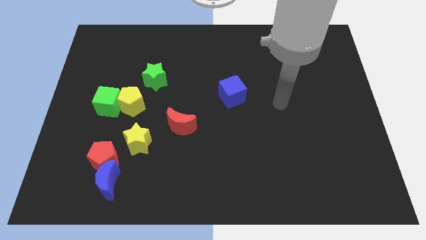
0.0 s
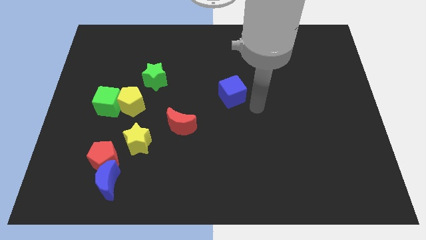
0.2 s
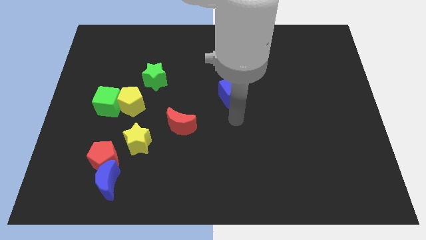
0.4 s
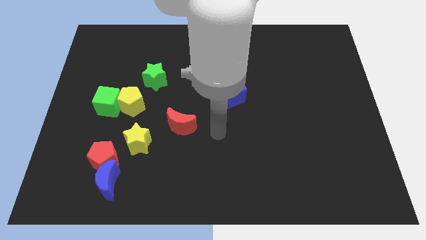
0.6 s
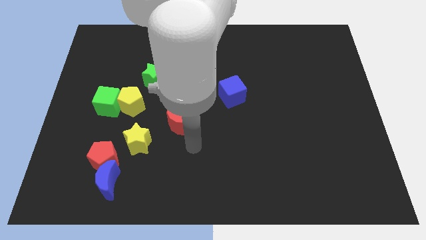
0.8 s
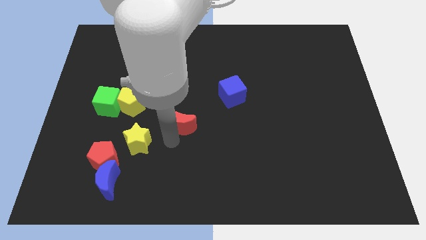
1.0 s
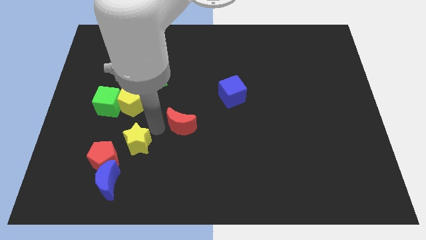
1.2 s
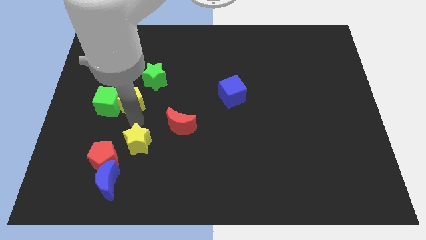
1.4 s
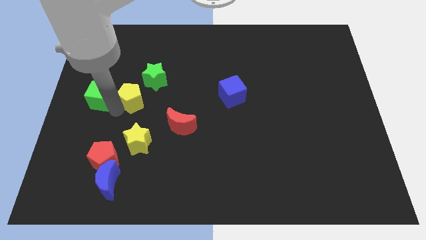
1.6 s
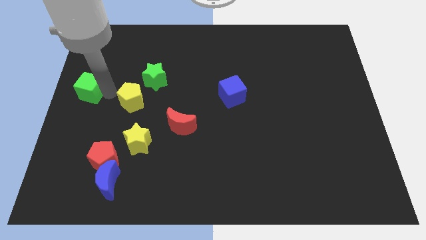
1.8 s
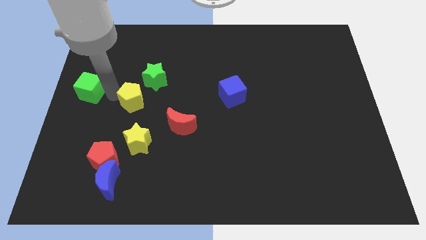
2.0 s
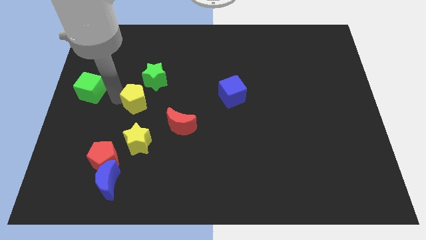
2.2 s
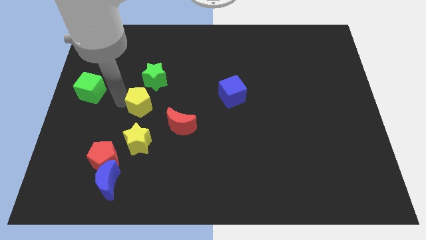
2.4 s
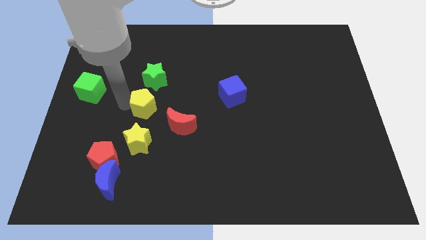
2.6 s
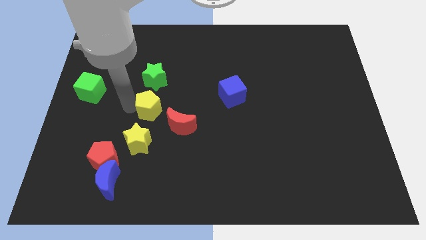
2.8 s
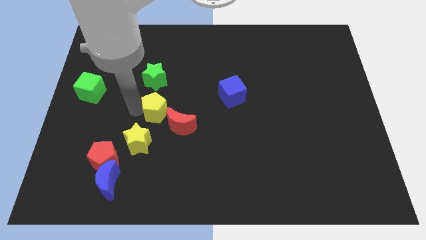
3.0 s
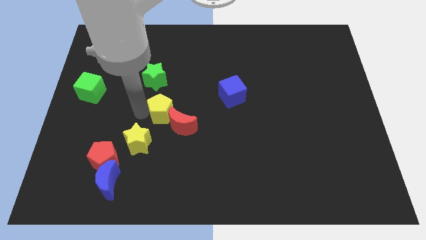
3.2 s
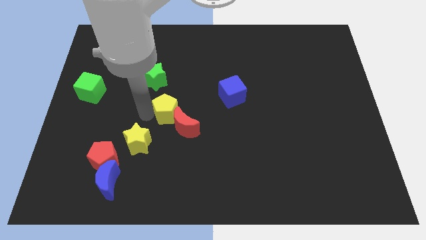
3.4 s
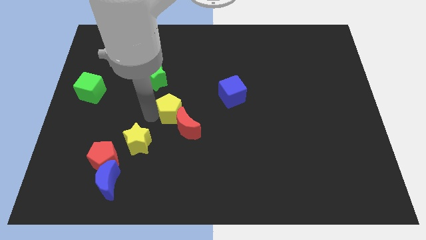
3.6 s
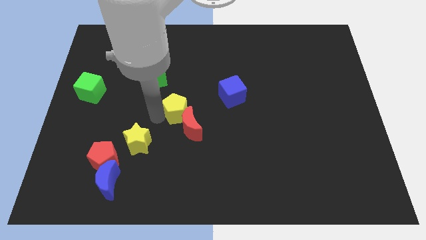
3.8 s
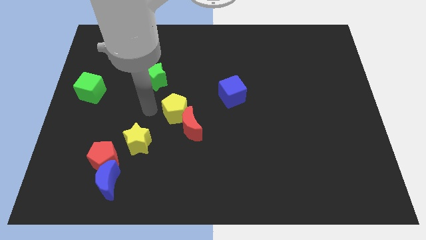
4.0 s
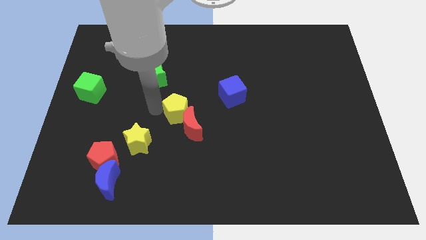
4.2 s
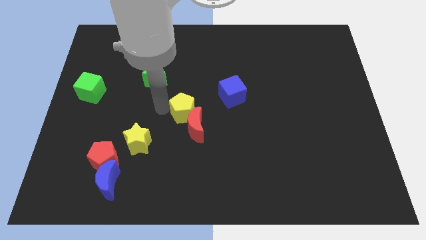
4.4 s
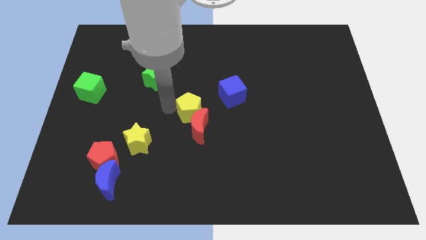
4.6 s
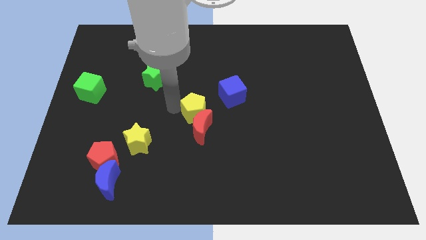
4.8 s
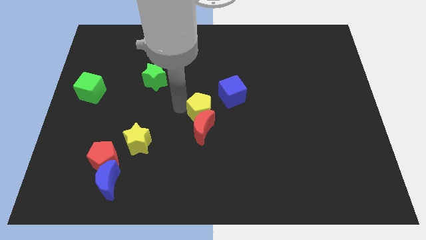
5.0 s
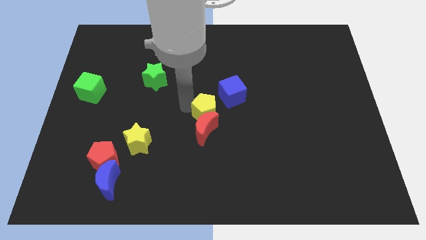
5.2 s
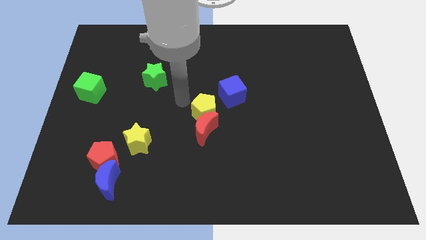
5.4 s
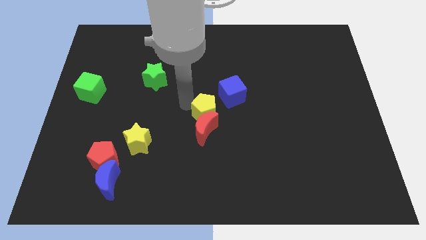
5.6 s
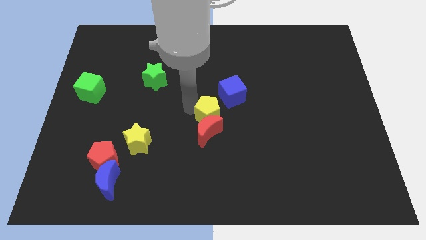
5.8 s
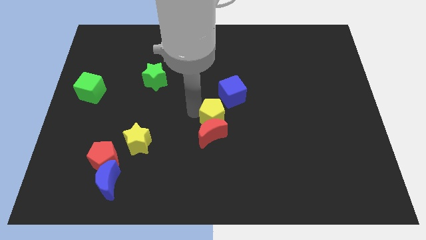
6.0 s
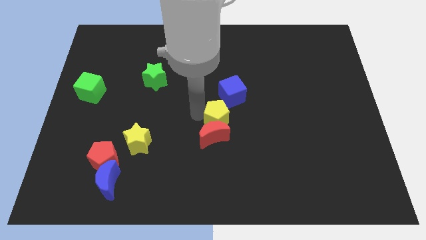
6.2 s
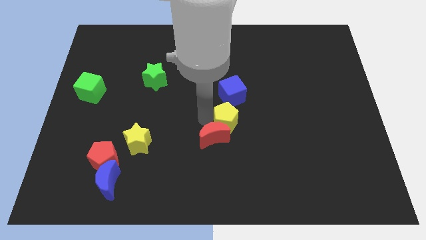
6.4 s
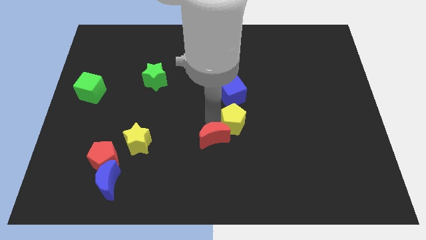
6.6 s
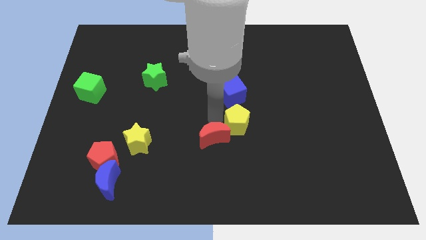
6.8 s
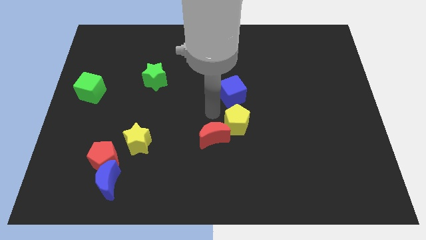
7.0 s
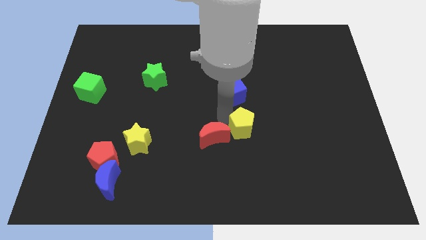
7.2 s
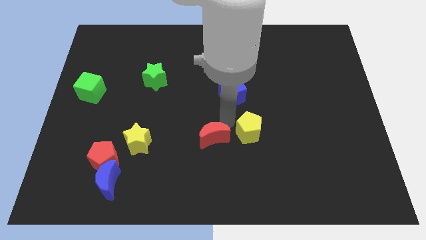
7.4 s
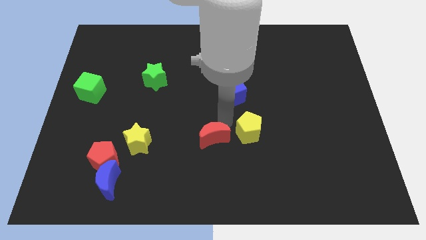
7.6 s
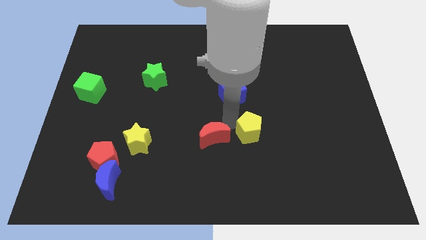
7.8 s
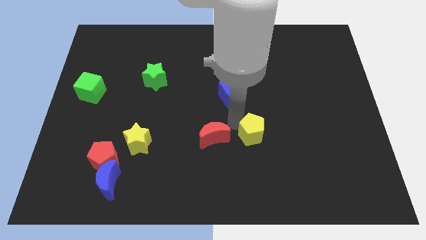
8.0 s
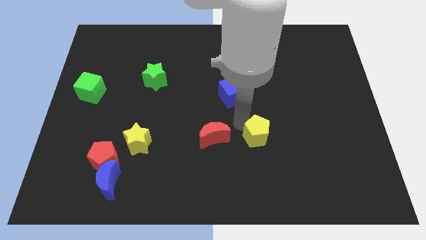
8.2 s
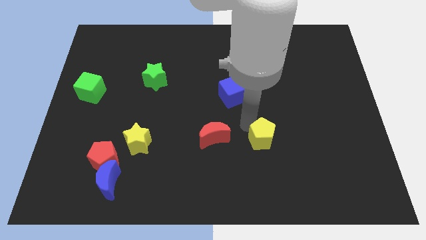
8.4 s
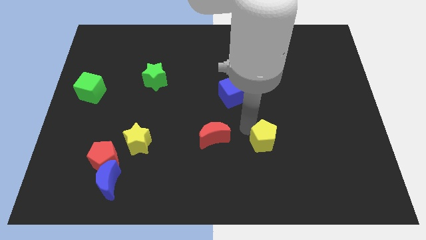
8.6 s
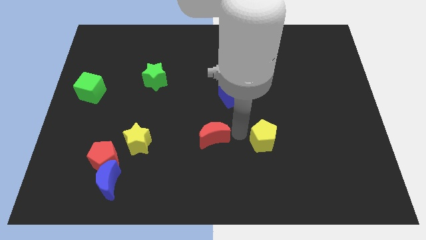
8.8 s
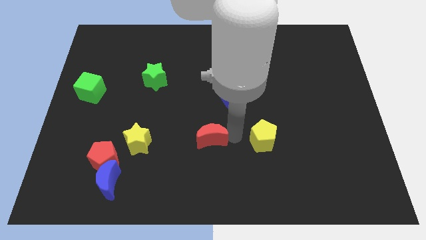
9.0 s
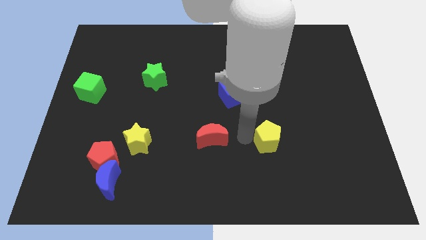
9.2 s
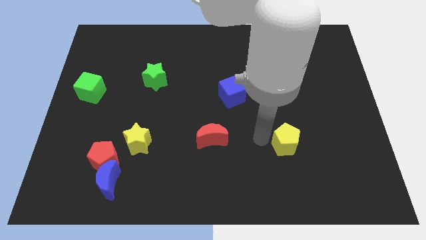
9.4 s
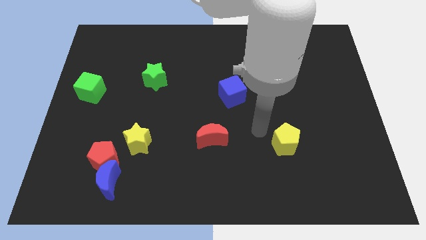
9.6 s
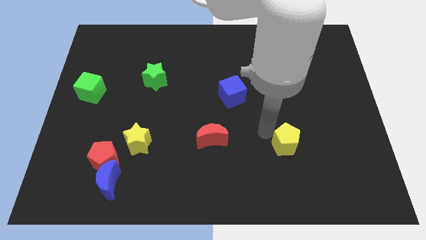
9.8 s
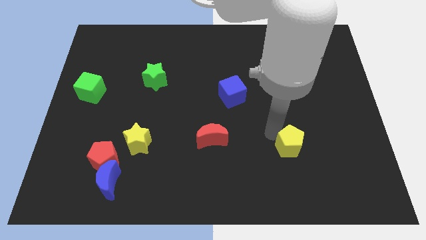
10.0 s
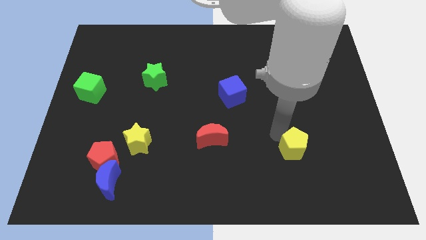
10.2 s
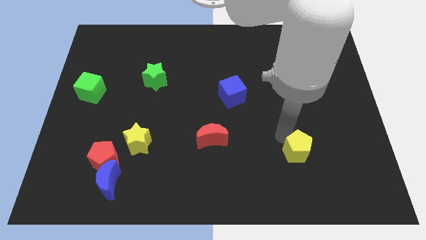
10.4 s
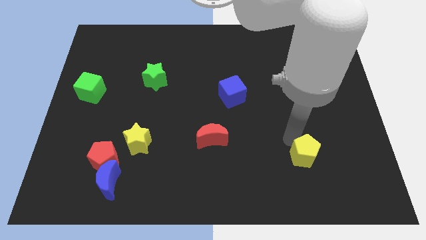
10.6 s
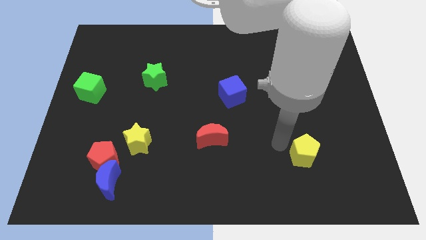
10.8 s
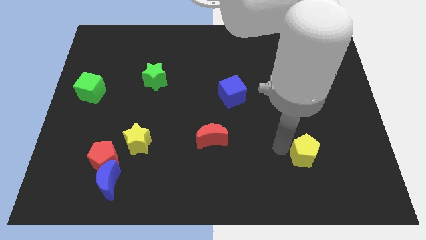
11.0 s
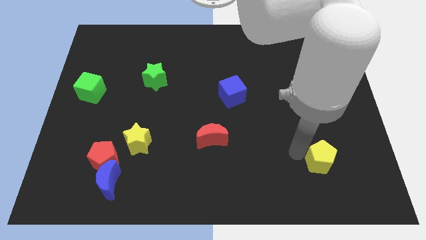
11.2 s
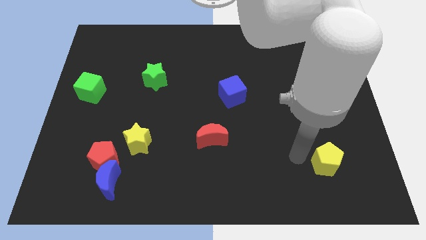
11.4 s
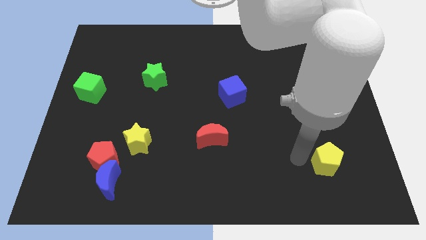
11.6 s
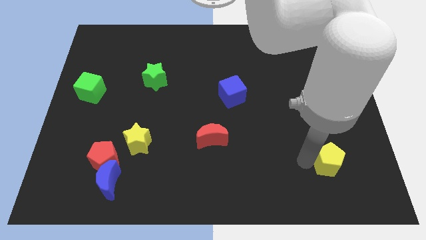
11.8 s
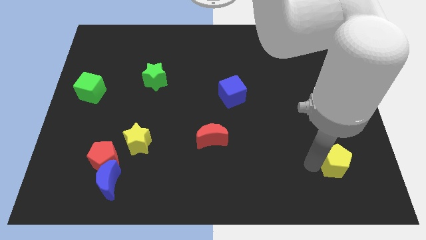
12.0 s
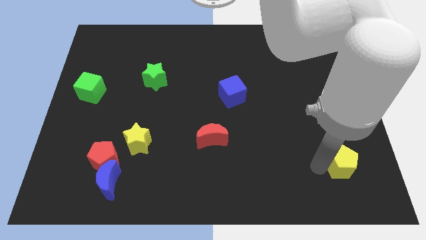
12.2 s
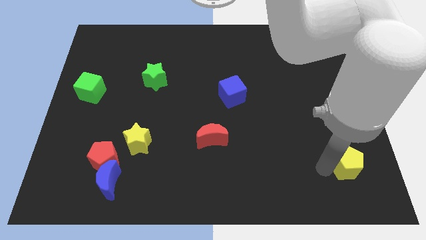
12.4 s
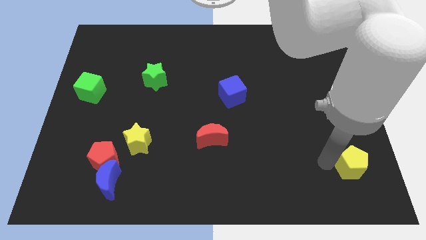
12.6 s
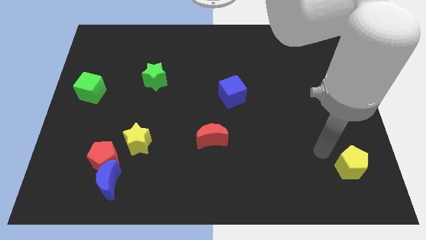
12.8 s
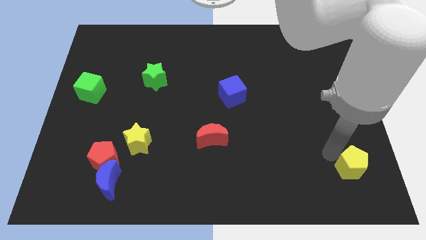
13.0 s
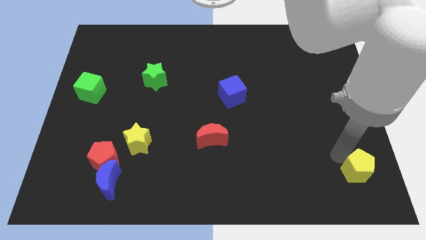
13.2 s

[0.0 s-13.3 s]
push the yellow pentagon to the bottom right
